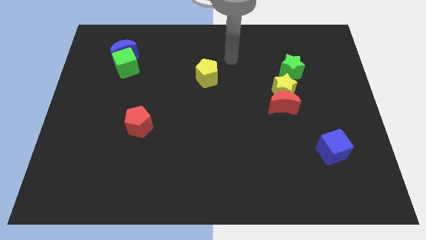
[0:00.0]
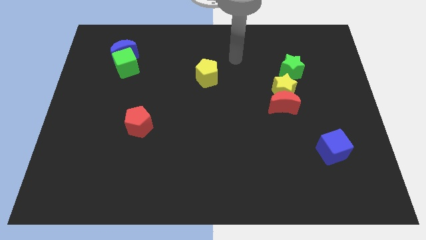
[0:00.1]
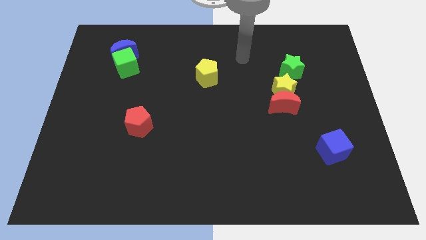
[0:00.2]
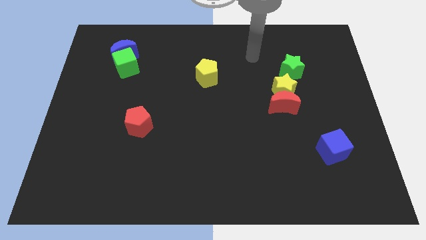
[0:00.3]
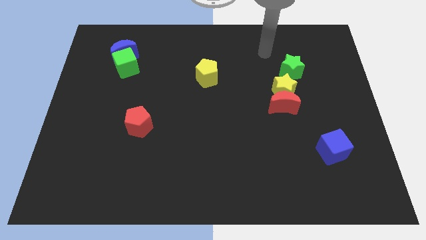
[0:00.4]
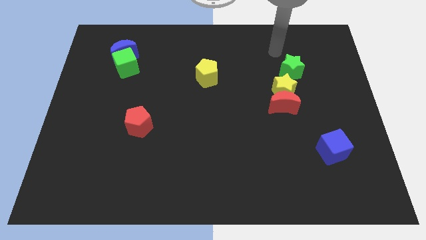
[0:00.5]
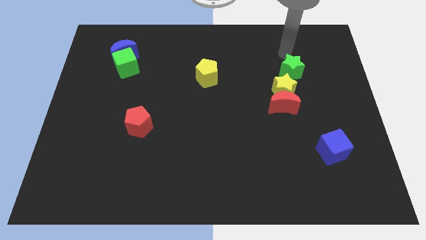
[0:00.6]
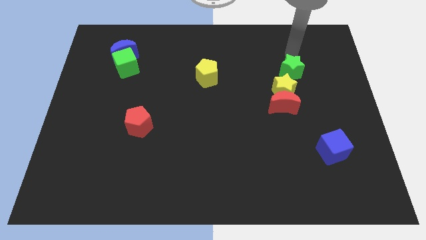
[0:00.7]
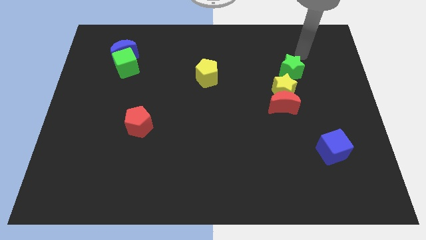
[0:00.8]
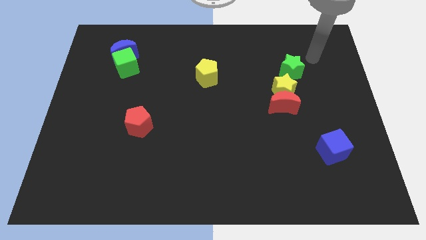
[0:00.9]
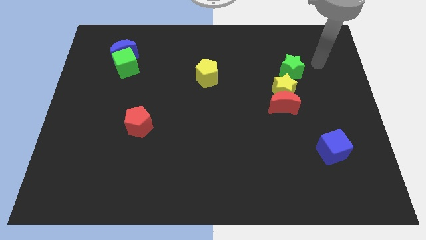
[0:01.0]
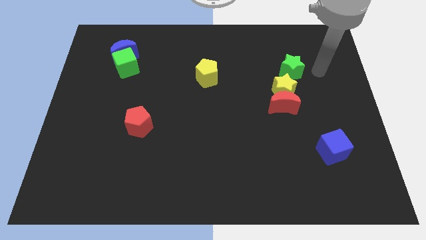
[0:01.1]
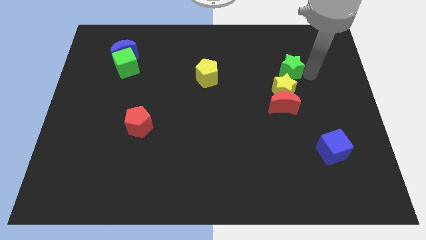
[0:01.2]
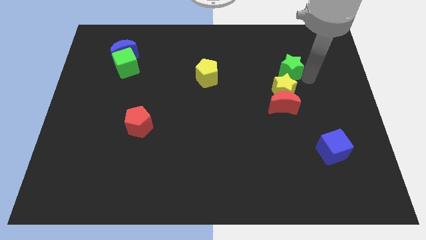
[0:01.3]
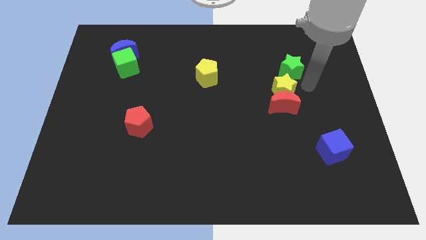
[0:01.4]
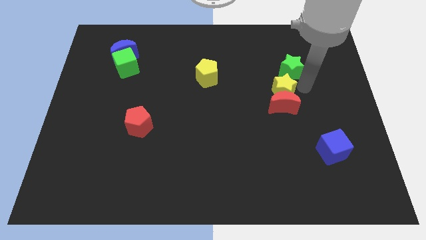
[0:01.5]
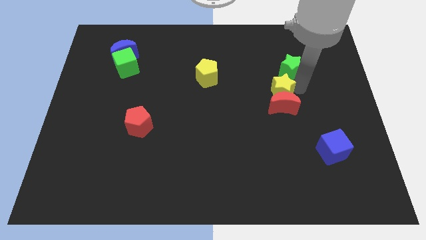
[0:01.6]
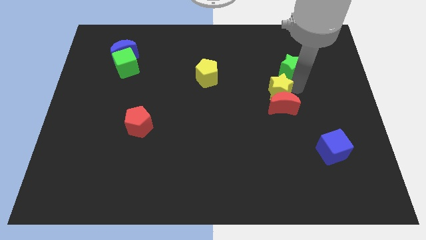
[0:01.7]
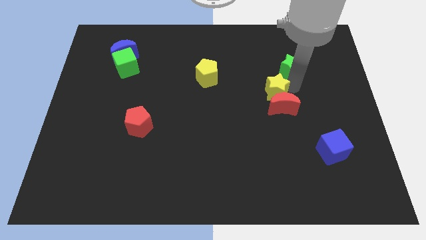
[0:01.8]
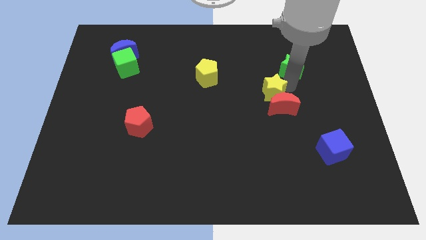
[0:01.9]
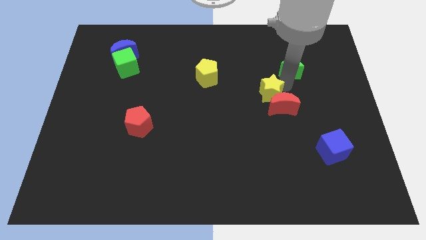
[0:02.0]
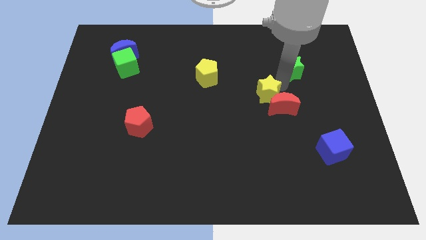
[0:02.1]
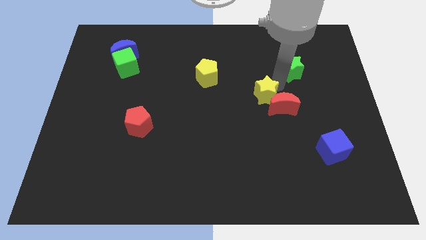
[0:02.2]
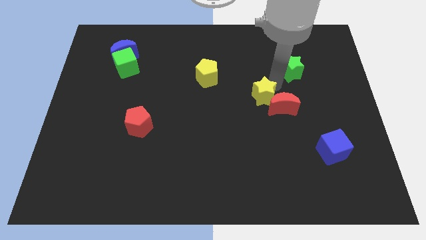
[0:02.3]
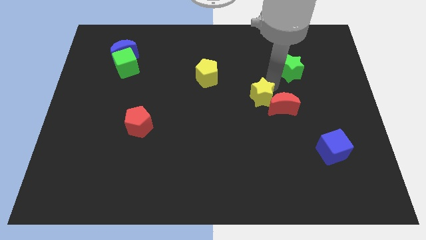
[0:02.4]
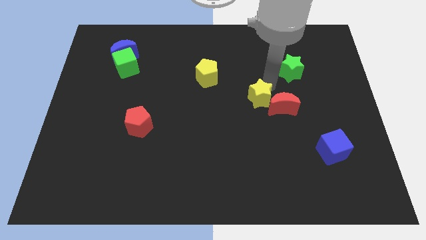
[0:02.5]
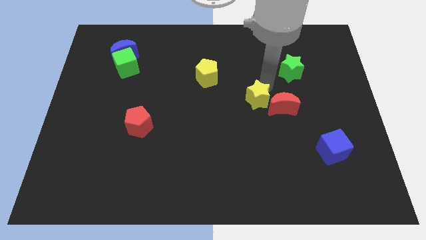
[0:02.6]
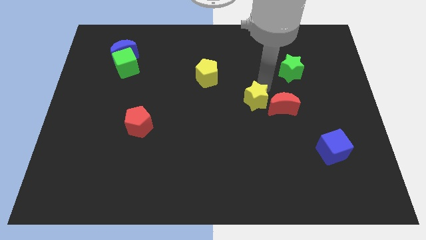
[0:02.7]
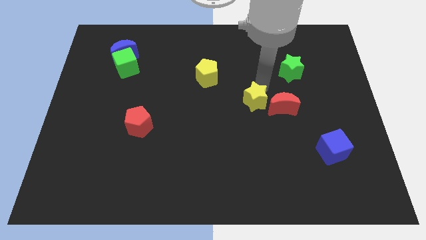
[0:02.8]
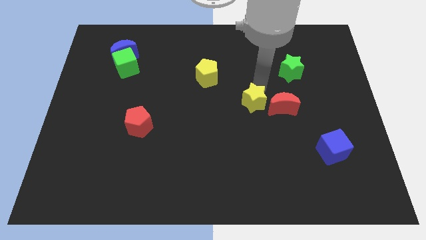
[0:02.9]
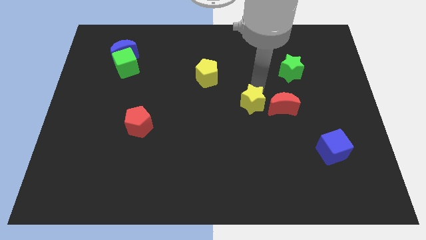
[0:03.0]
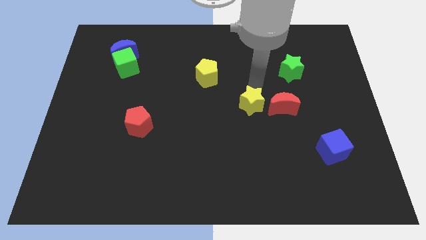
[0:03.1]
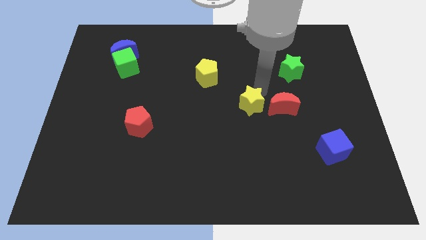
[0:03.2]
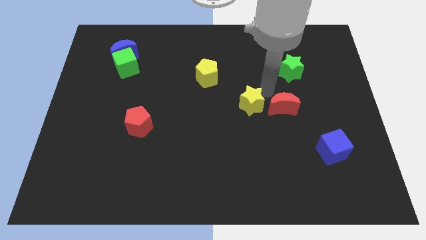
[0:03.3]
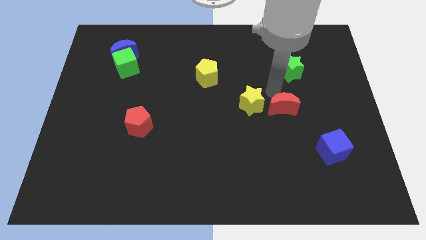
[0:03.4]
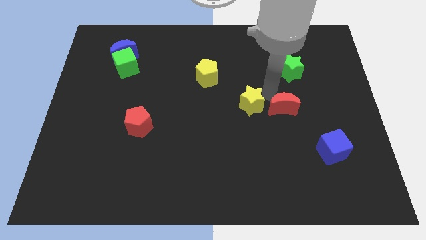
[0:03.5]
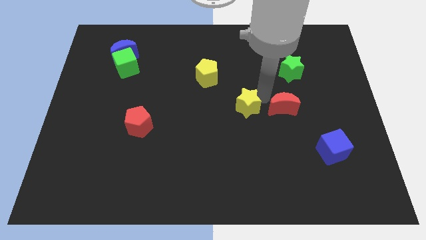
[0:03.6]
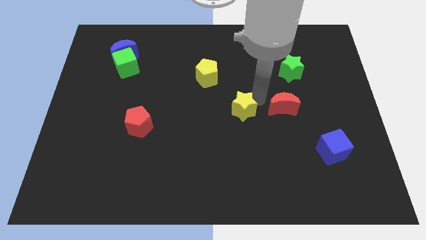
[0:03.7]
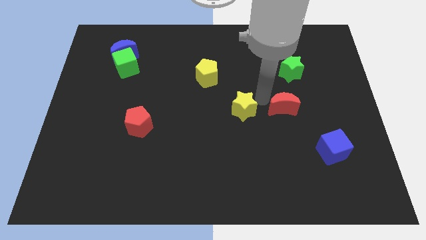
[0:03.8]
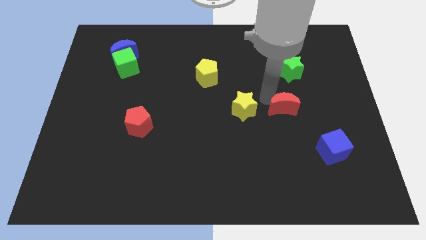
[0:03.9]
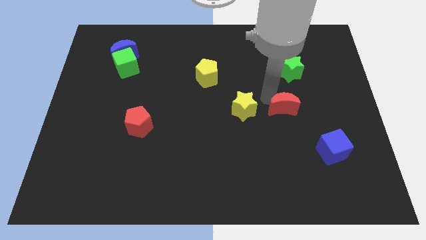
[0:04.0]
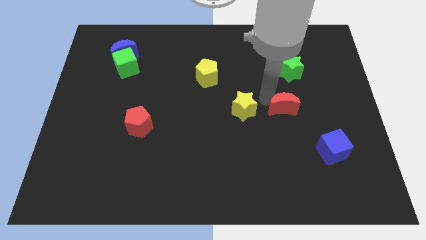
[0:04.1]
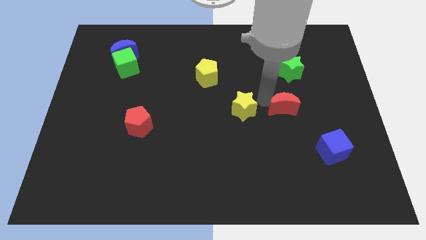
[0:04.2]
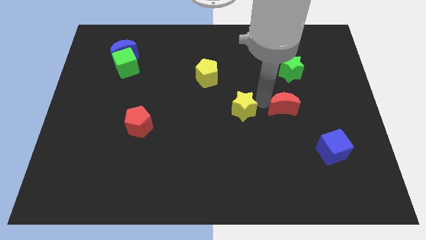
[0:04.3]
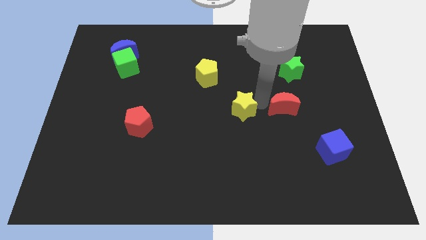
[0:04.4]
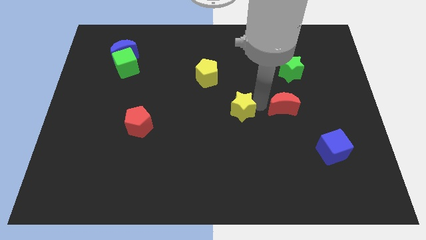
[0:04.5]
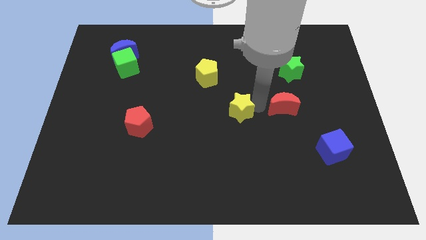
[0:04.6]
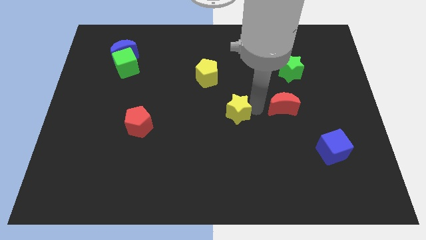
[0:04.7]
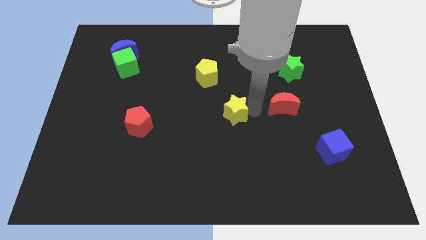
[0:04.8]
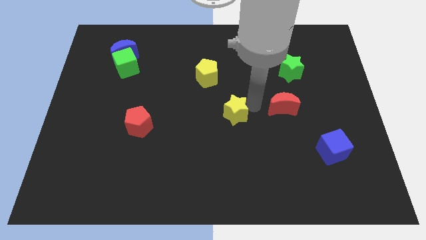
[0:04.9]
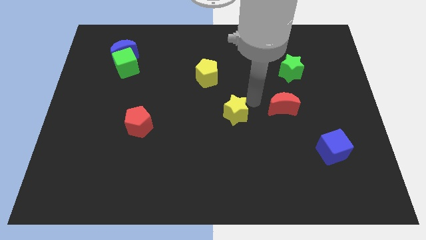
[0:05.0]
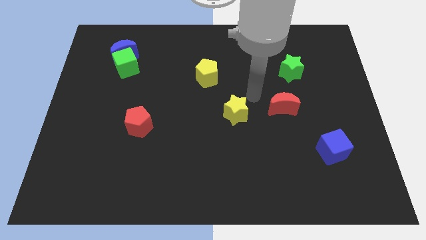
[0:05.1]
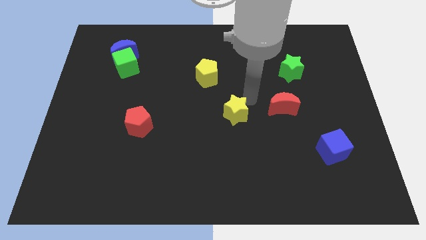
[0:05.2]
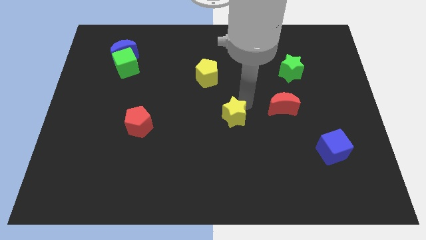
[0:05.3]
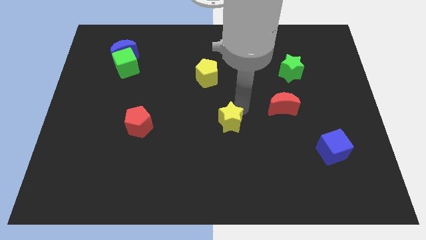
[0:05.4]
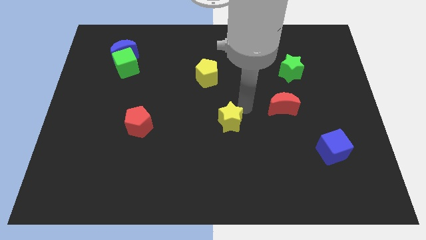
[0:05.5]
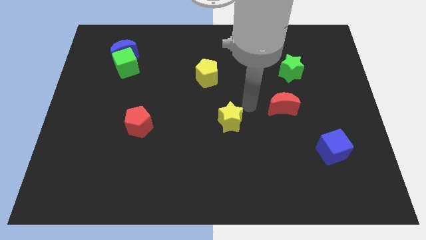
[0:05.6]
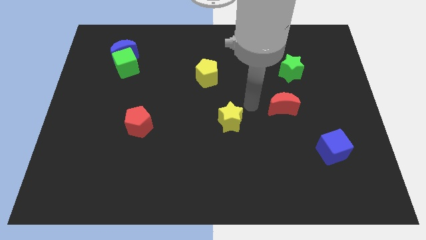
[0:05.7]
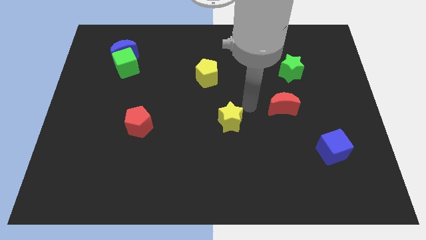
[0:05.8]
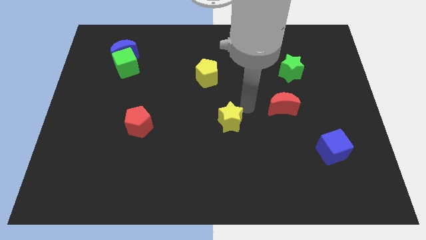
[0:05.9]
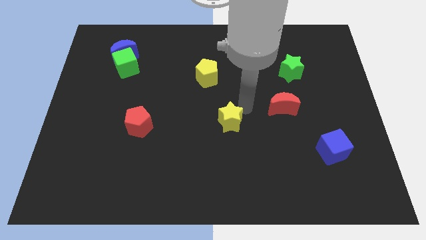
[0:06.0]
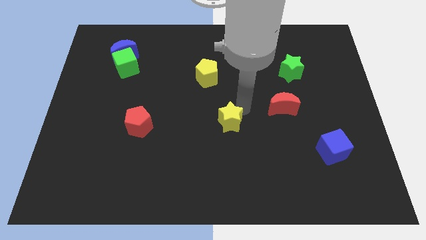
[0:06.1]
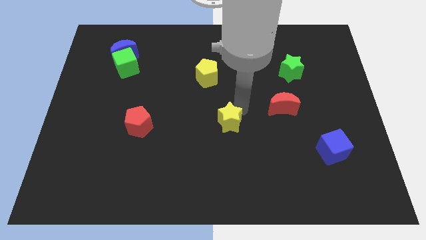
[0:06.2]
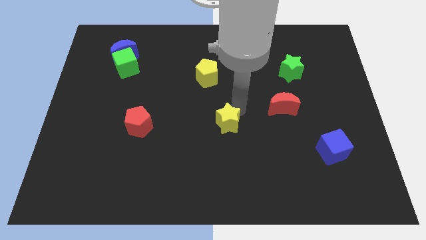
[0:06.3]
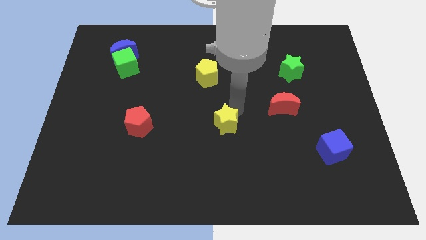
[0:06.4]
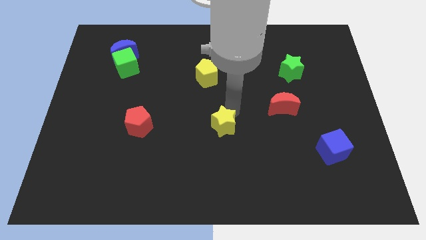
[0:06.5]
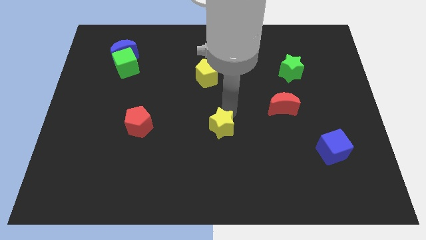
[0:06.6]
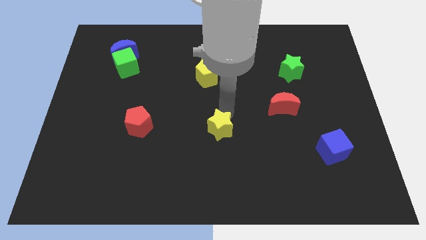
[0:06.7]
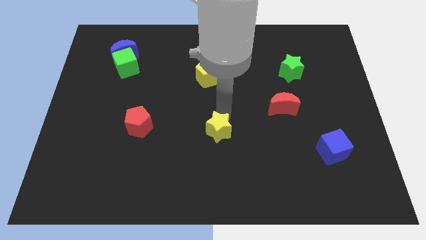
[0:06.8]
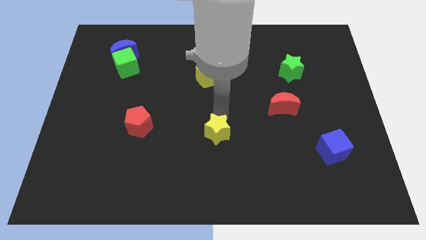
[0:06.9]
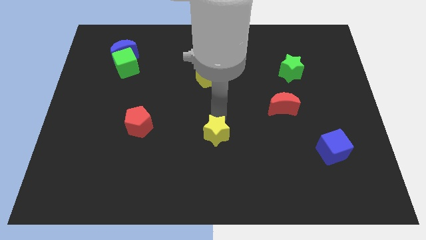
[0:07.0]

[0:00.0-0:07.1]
slide the yellow star downwards and then left

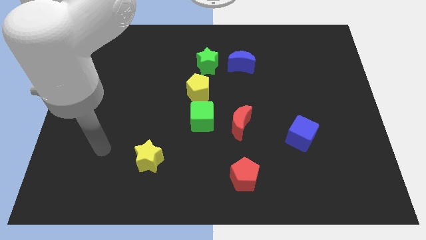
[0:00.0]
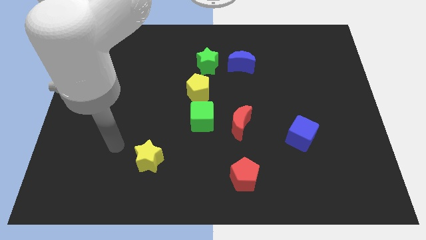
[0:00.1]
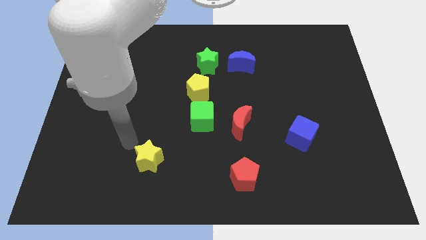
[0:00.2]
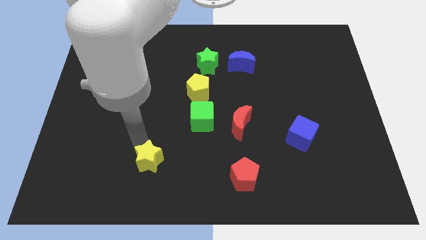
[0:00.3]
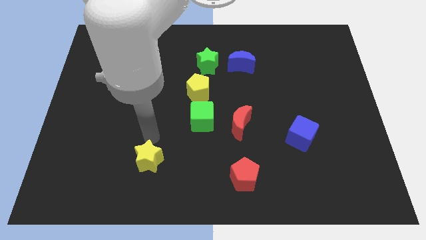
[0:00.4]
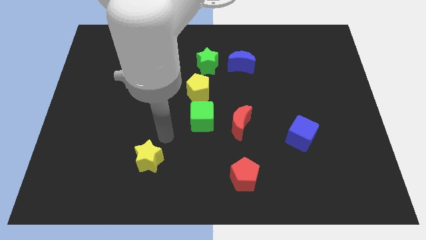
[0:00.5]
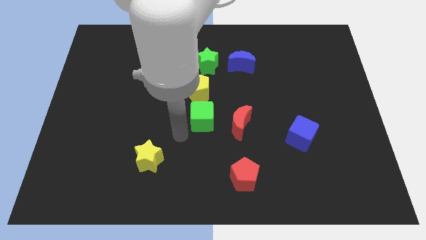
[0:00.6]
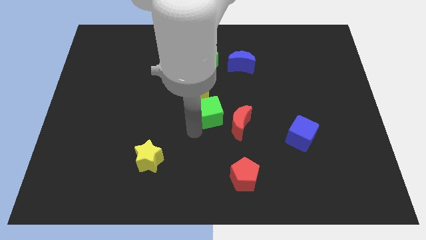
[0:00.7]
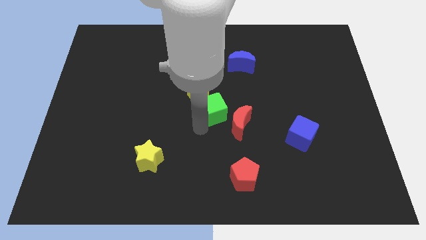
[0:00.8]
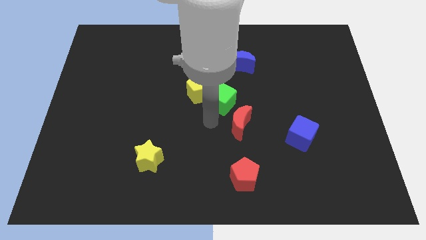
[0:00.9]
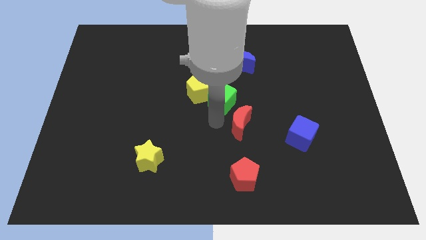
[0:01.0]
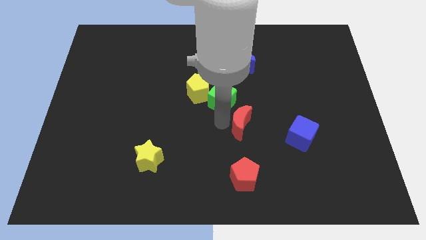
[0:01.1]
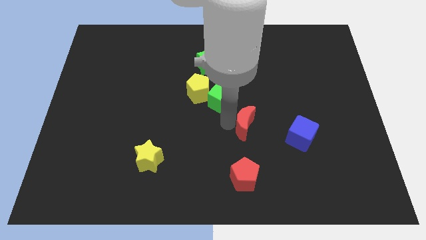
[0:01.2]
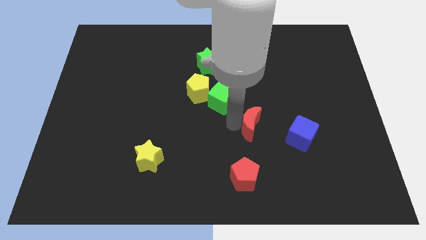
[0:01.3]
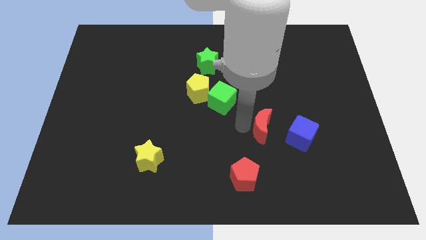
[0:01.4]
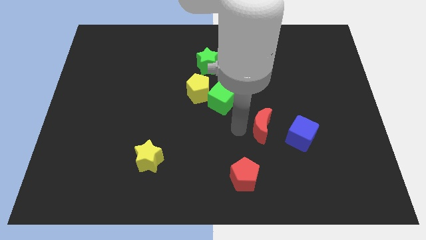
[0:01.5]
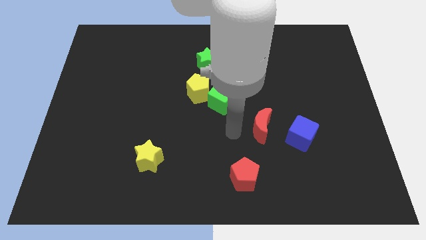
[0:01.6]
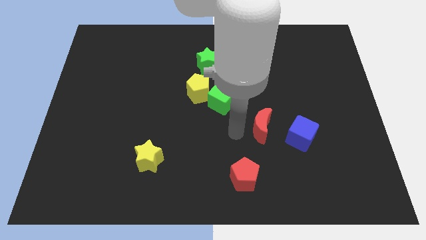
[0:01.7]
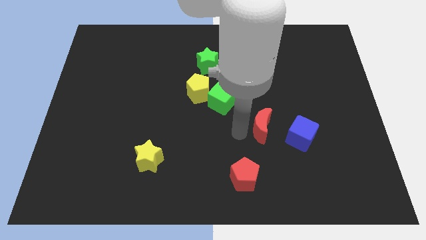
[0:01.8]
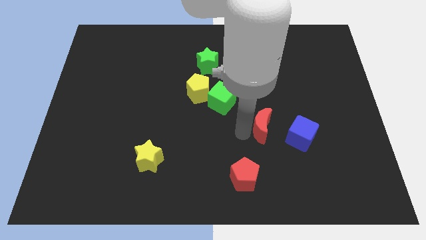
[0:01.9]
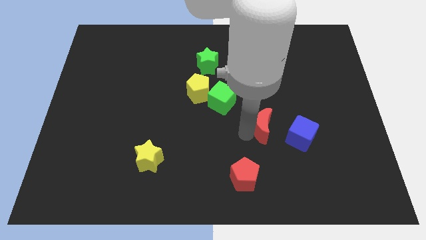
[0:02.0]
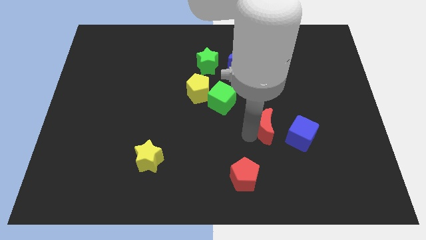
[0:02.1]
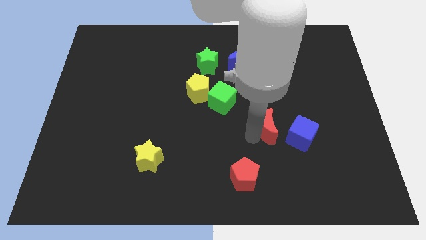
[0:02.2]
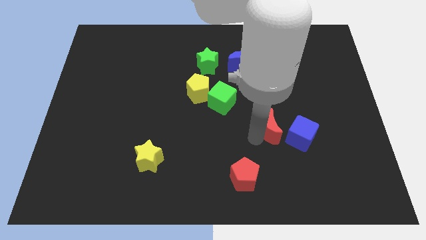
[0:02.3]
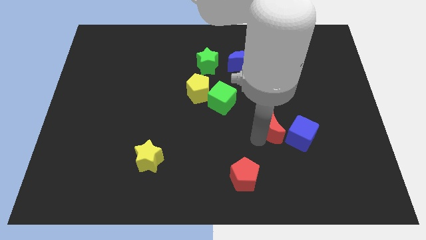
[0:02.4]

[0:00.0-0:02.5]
slide the red moon a little to the right
